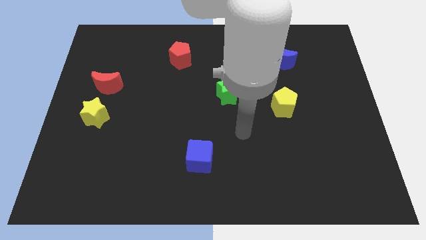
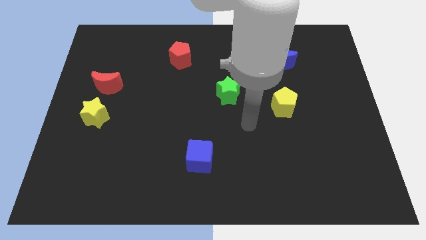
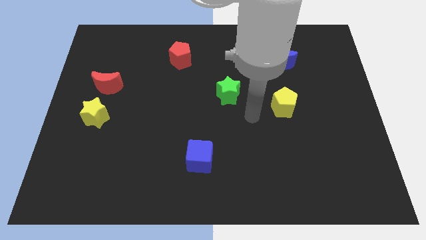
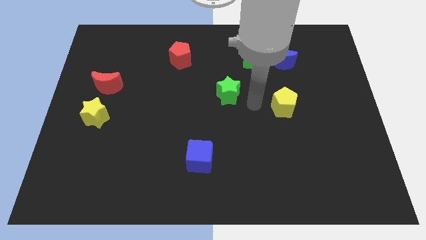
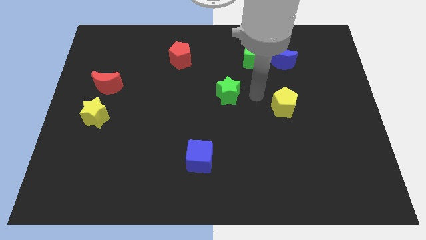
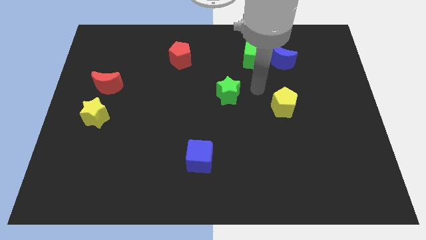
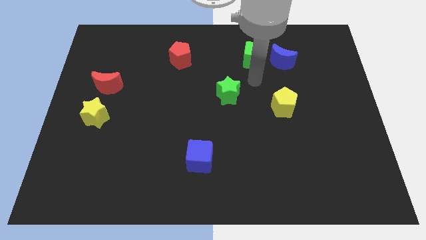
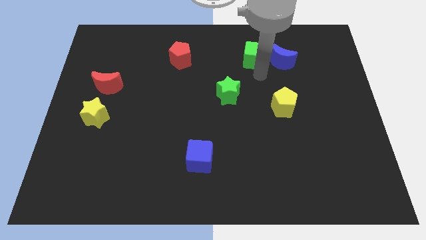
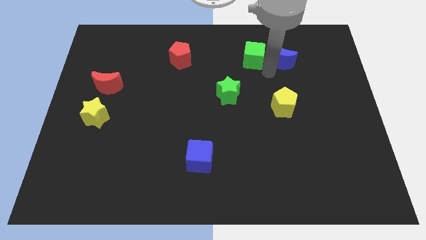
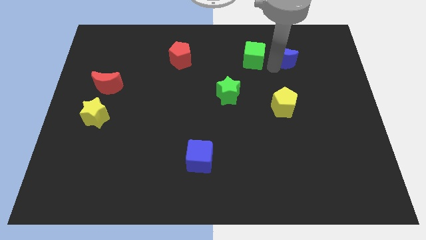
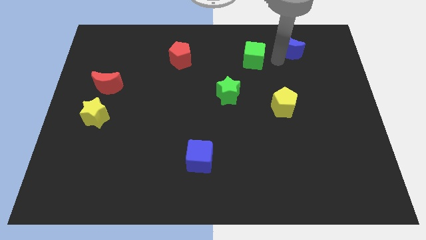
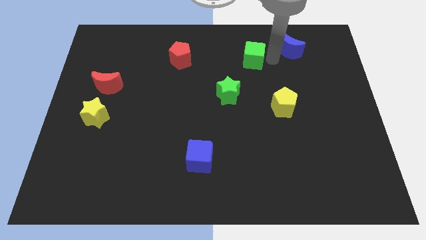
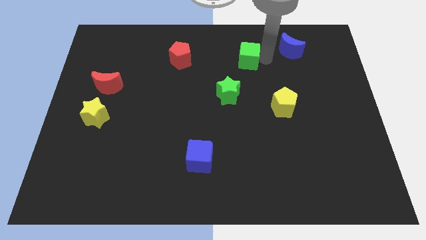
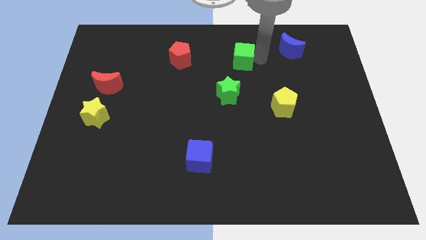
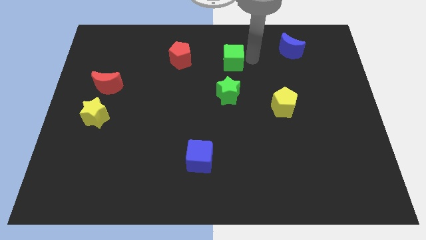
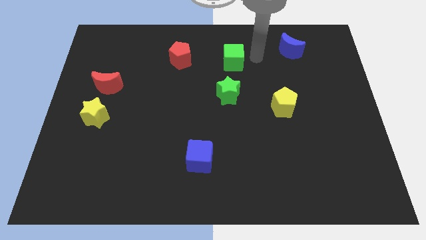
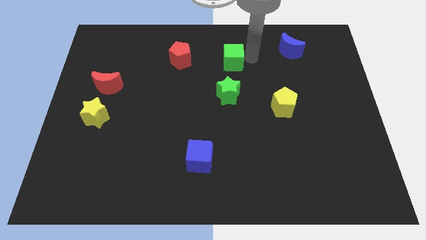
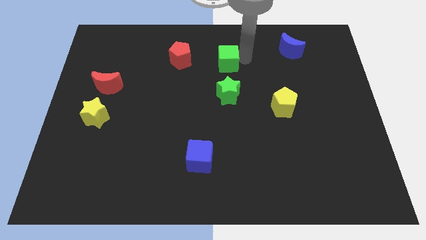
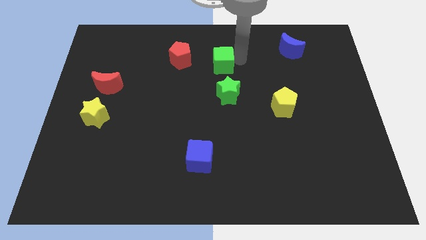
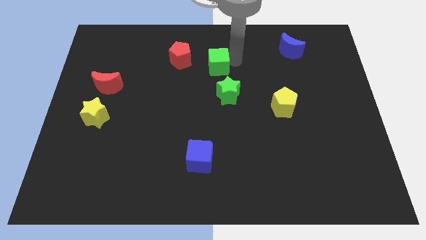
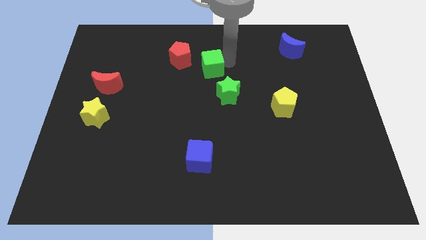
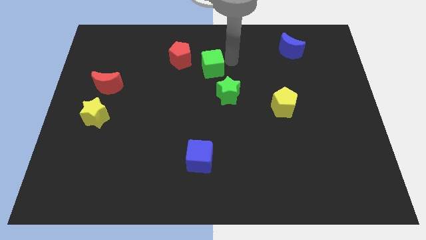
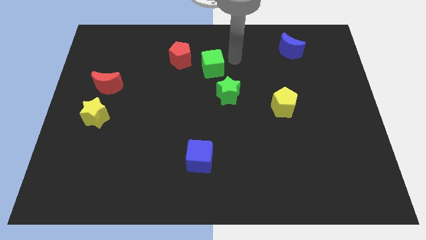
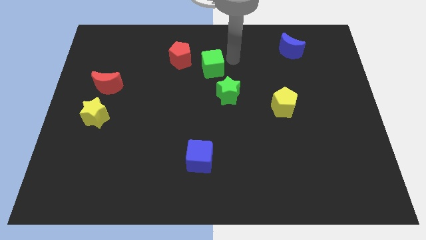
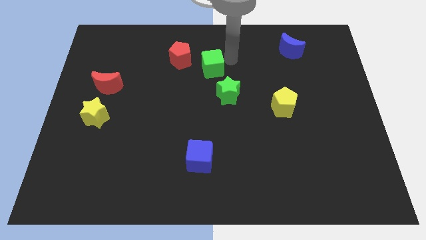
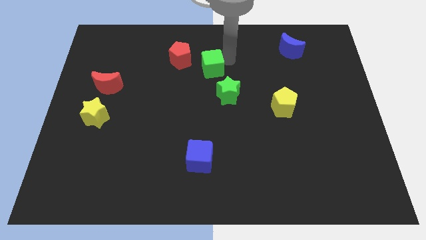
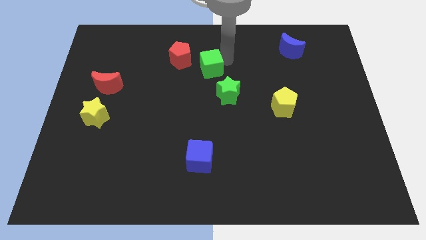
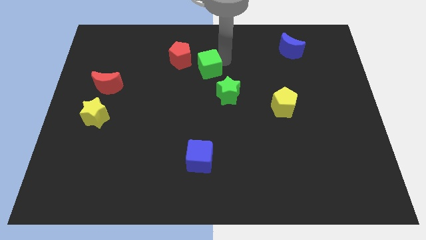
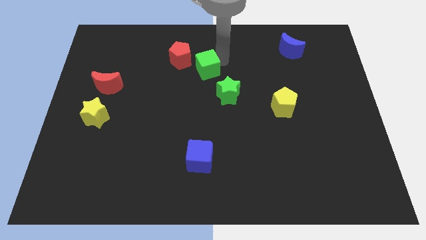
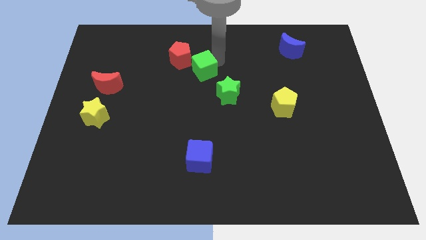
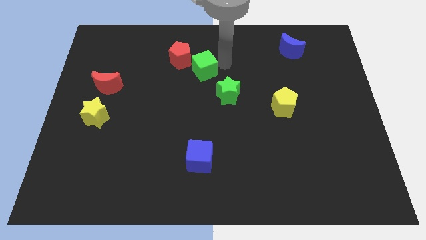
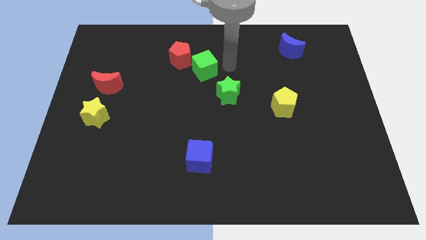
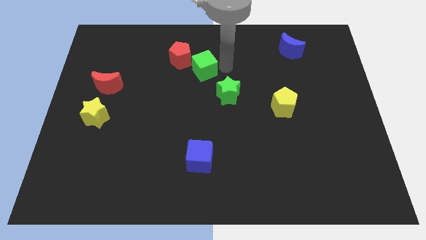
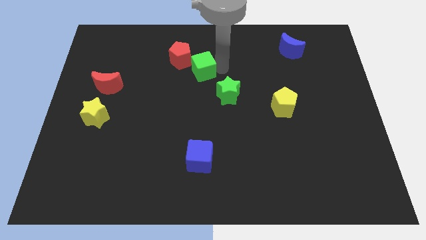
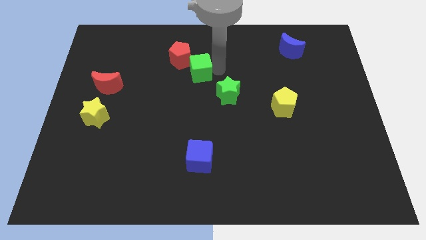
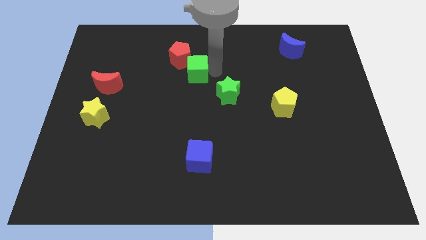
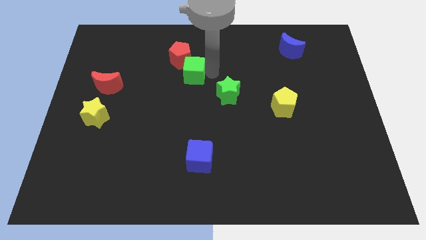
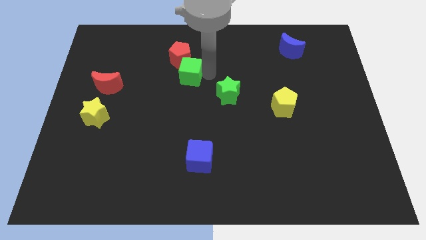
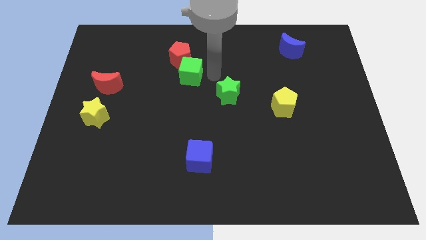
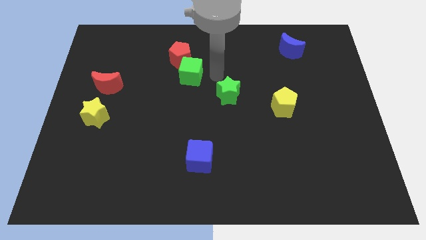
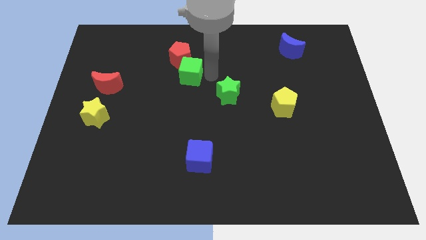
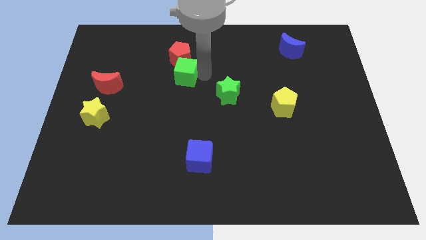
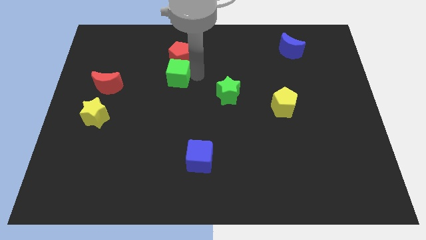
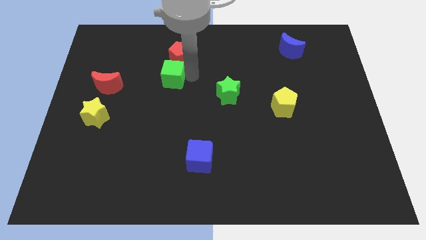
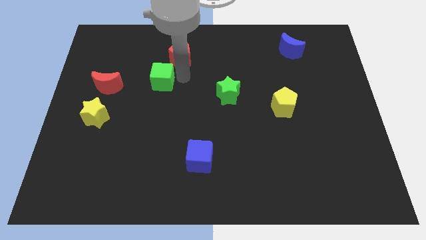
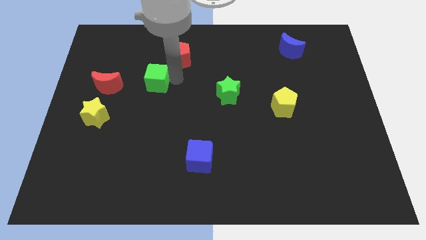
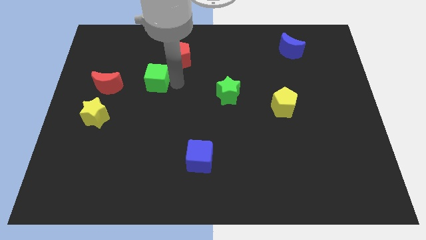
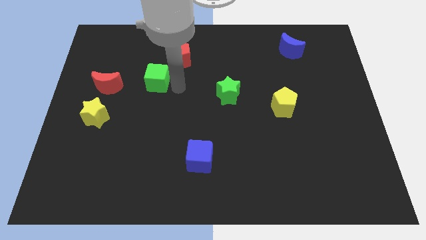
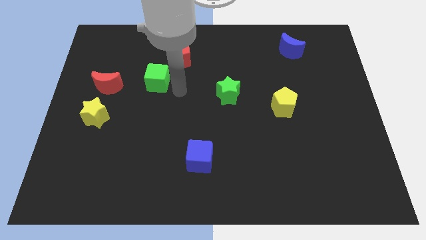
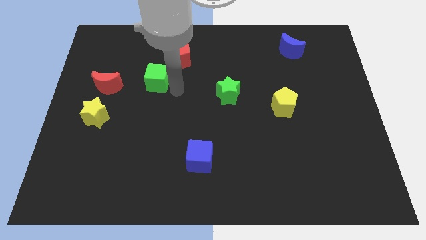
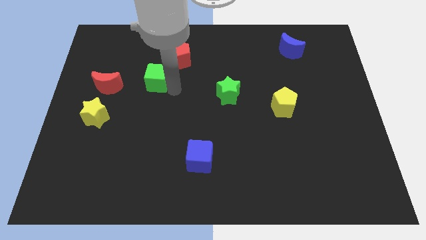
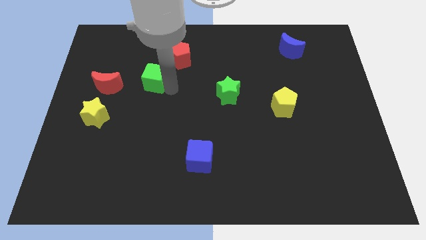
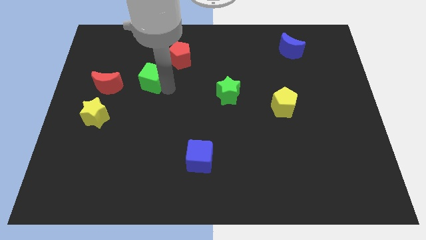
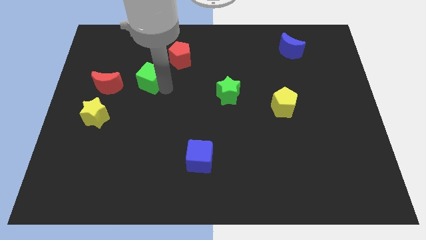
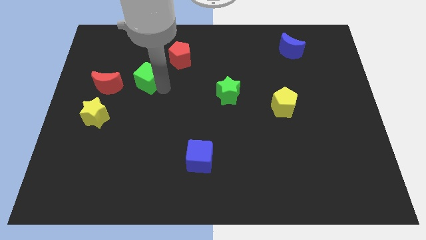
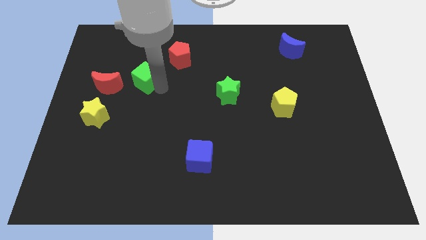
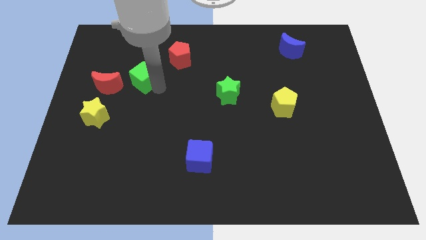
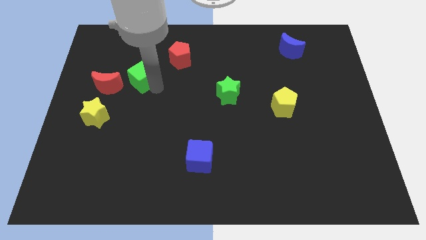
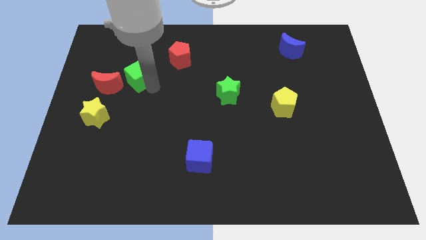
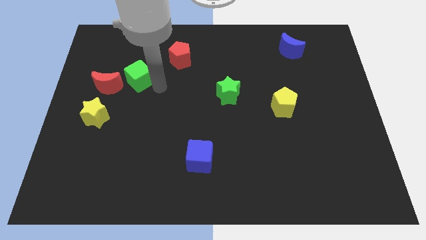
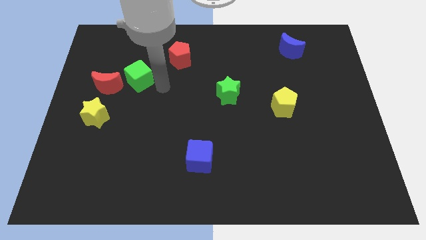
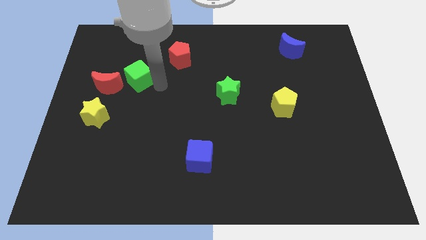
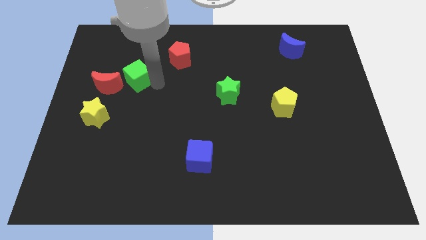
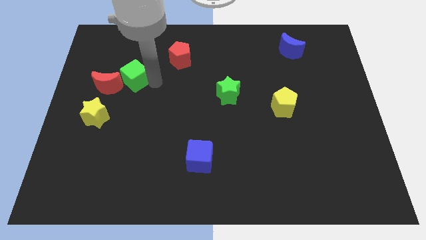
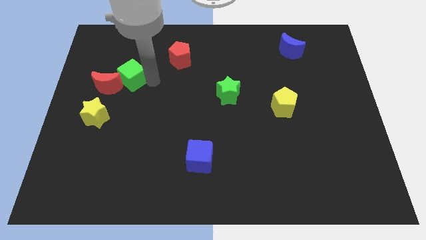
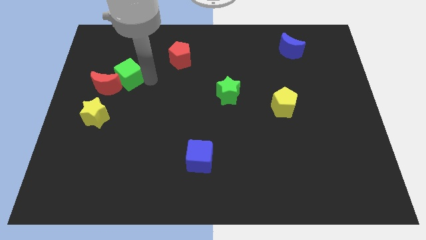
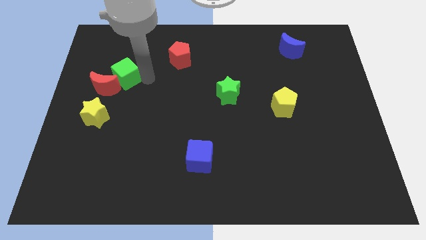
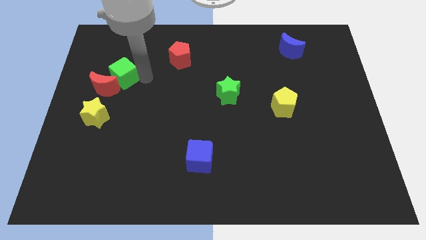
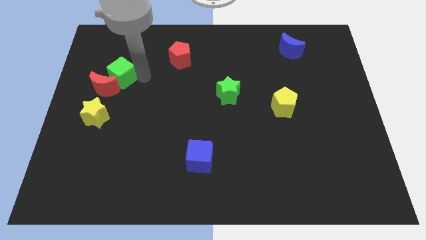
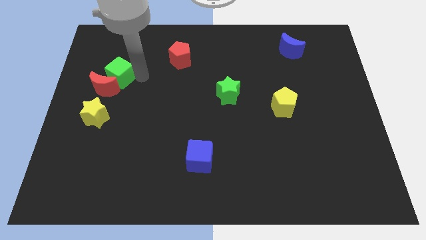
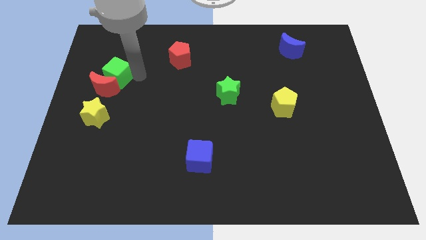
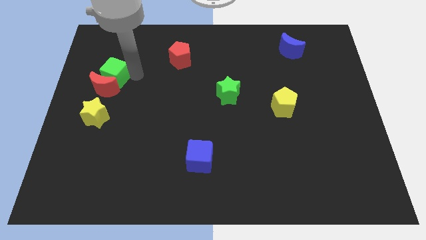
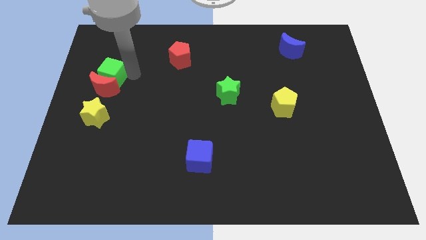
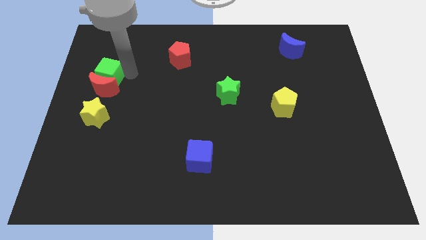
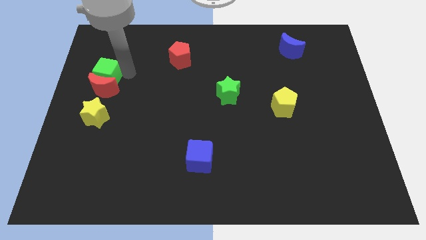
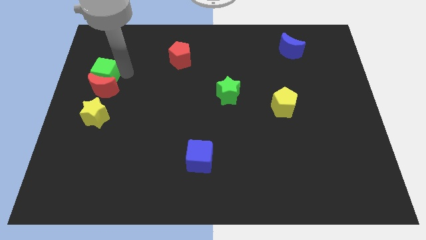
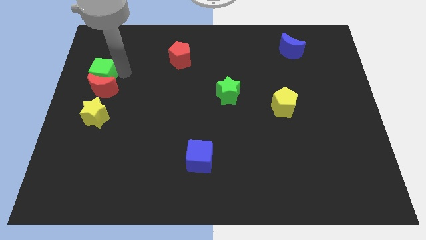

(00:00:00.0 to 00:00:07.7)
move the green cube to the center left
